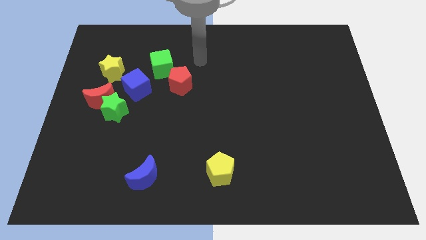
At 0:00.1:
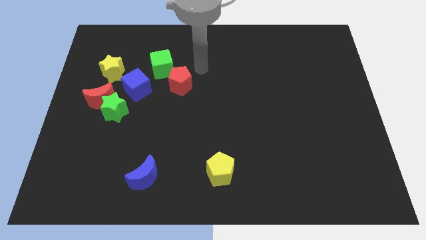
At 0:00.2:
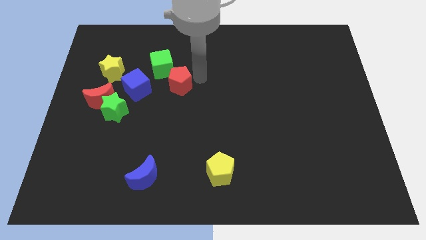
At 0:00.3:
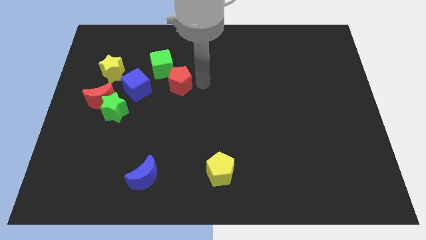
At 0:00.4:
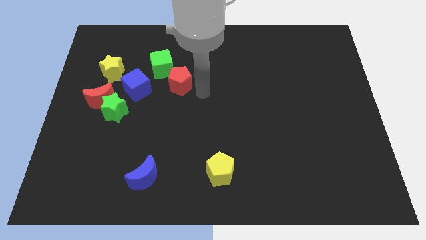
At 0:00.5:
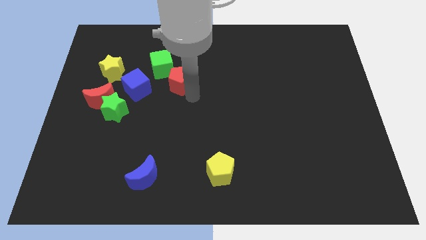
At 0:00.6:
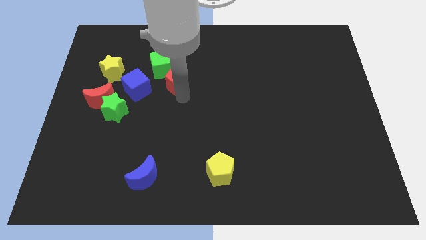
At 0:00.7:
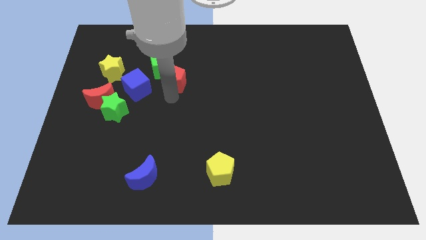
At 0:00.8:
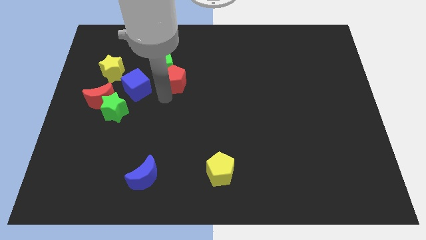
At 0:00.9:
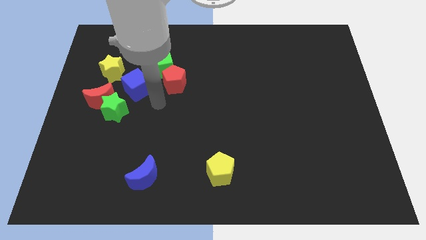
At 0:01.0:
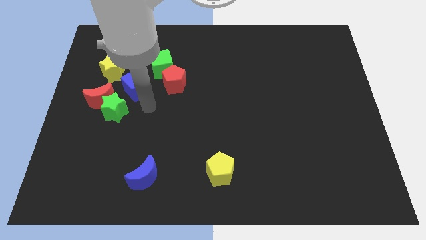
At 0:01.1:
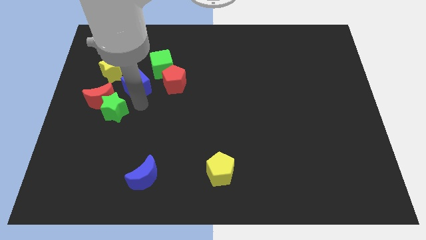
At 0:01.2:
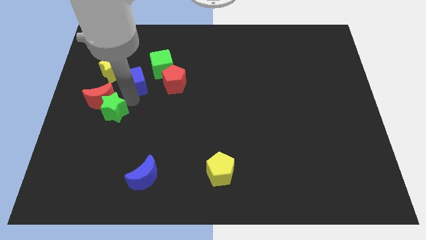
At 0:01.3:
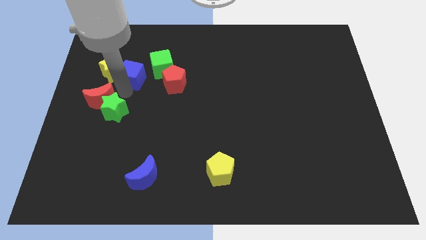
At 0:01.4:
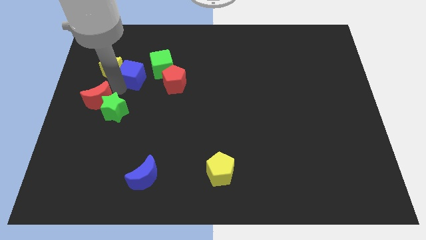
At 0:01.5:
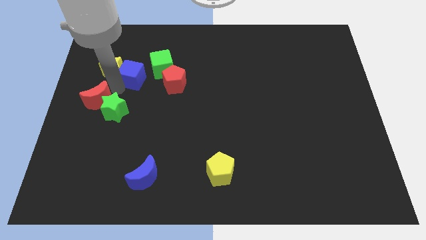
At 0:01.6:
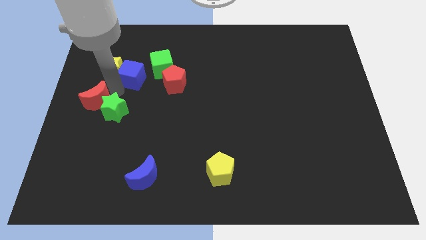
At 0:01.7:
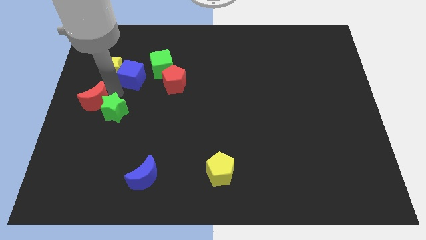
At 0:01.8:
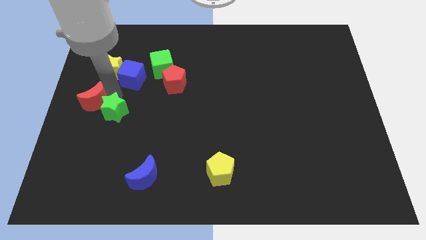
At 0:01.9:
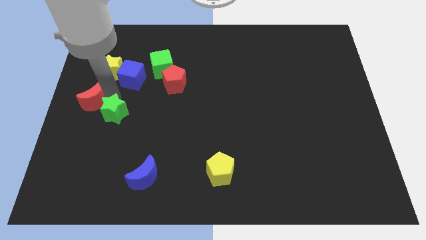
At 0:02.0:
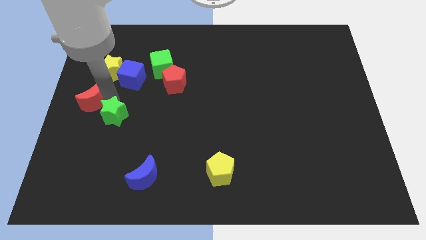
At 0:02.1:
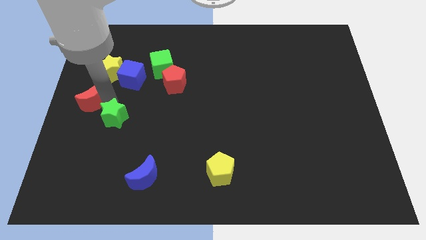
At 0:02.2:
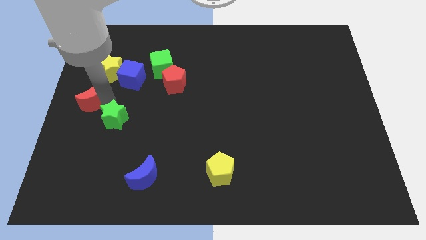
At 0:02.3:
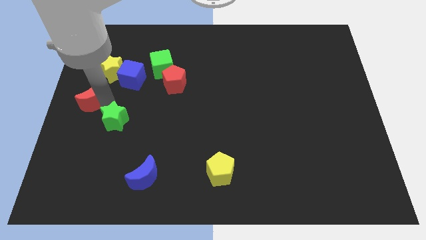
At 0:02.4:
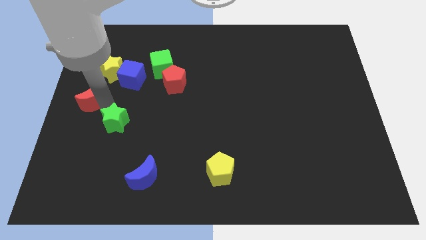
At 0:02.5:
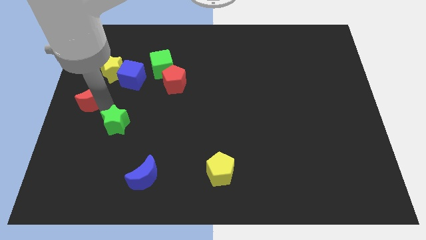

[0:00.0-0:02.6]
separate the green star from the red moon and blue cube

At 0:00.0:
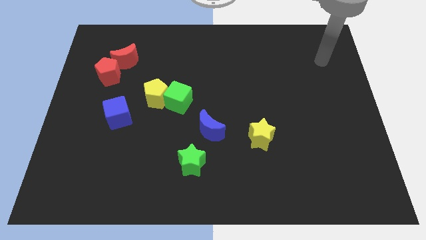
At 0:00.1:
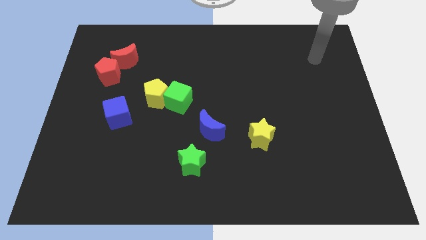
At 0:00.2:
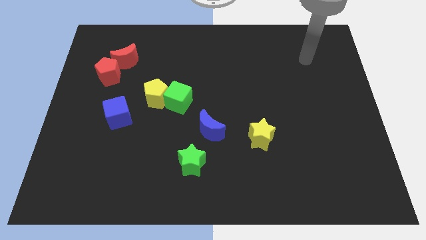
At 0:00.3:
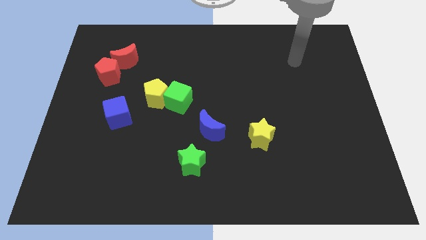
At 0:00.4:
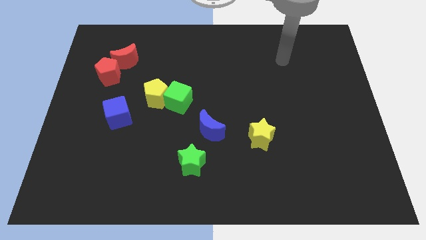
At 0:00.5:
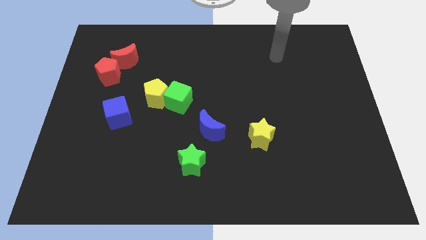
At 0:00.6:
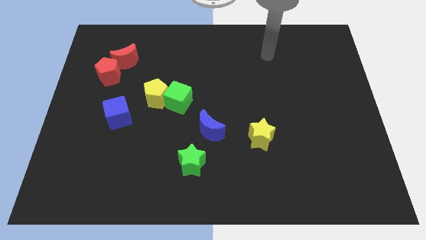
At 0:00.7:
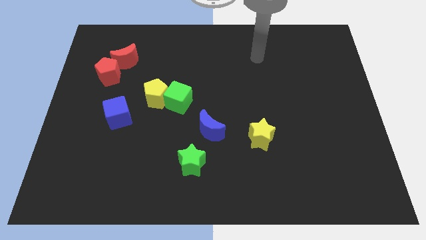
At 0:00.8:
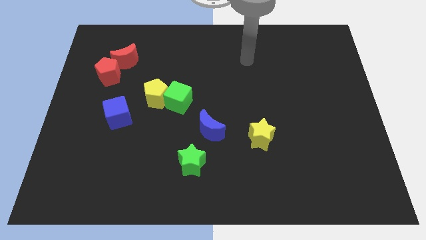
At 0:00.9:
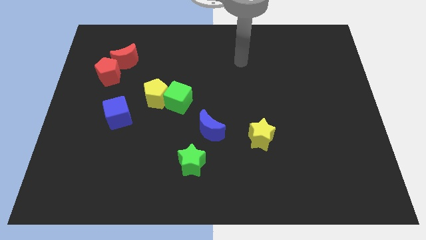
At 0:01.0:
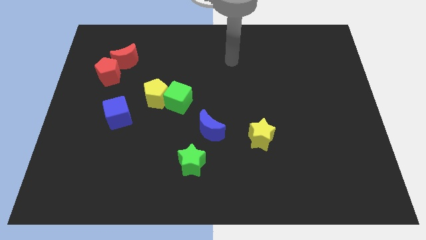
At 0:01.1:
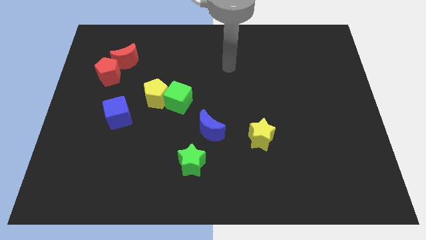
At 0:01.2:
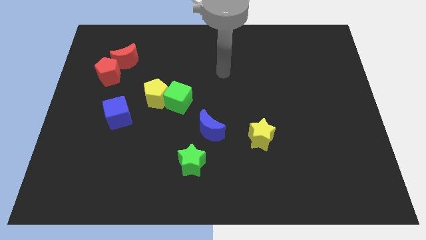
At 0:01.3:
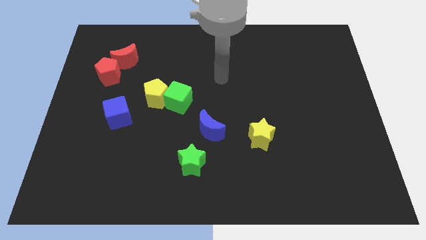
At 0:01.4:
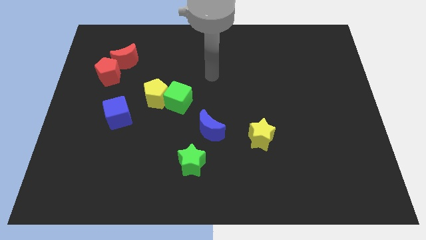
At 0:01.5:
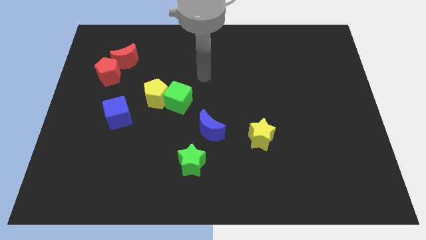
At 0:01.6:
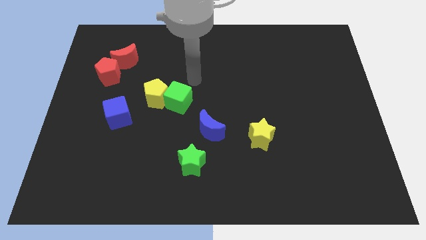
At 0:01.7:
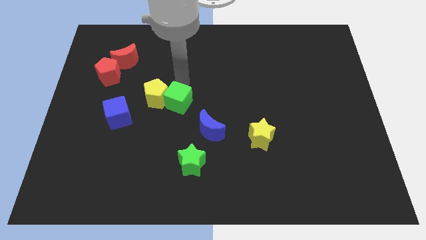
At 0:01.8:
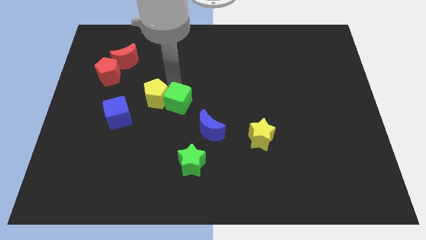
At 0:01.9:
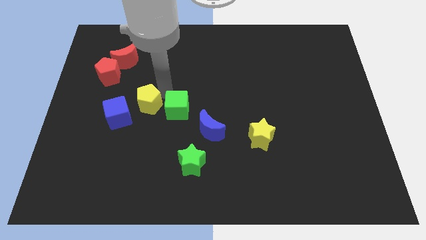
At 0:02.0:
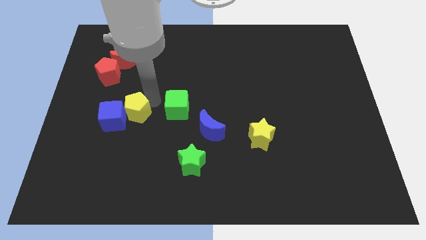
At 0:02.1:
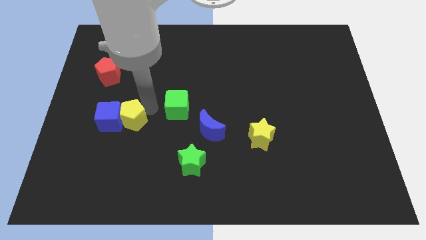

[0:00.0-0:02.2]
move the green cube away from the yellow pentagon

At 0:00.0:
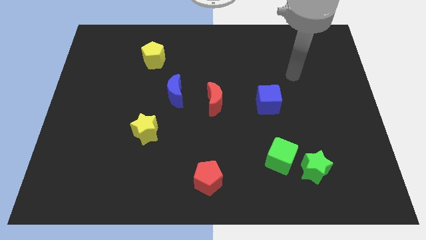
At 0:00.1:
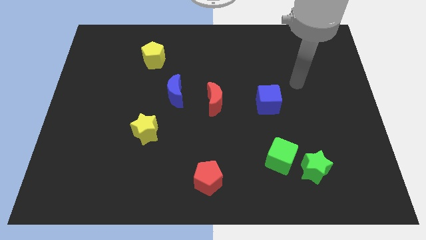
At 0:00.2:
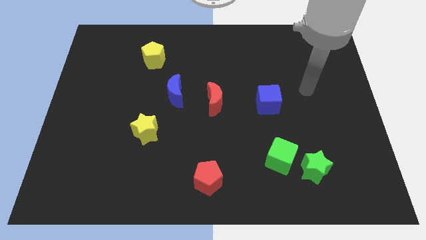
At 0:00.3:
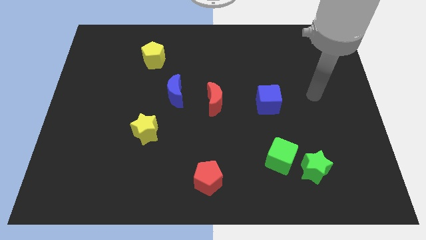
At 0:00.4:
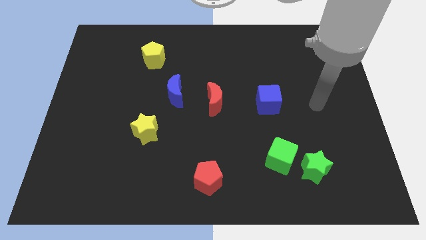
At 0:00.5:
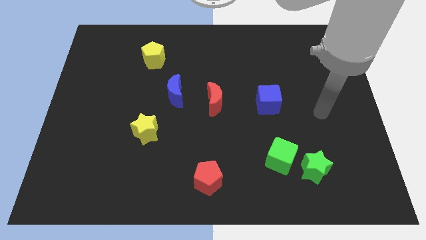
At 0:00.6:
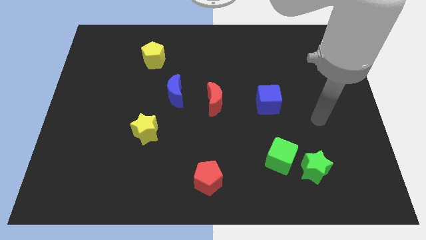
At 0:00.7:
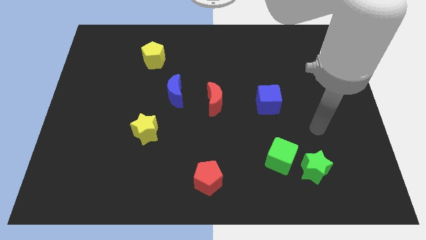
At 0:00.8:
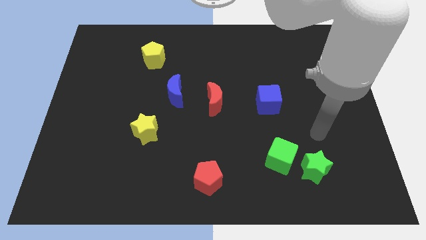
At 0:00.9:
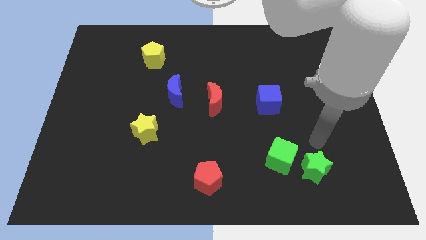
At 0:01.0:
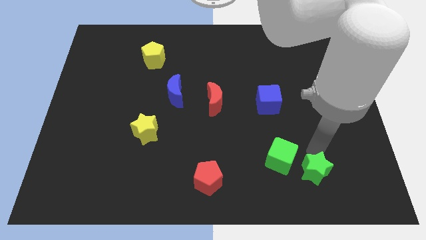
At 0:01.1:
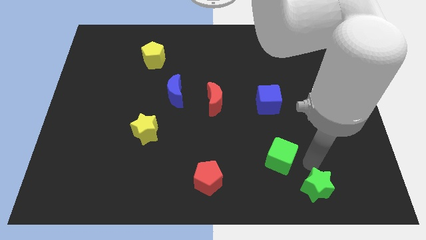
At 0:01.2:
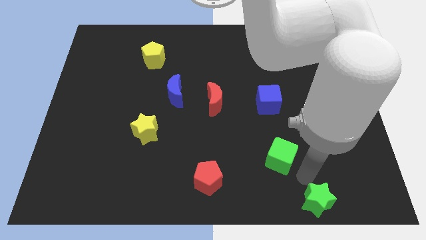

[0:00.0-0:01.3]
move the green cube away from the green star

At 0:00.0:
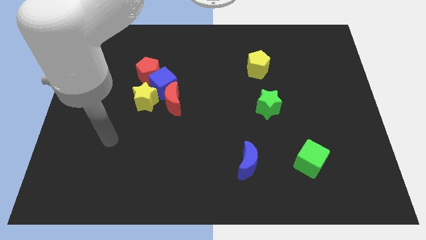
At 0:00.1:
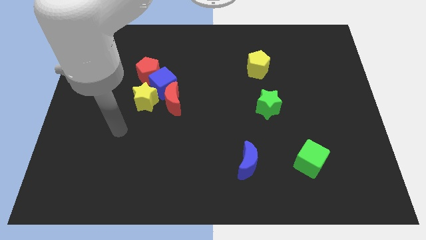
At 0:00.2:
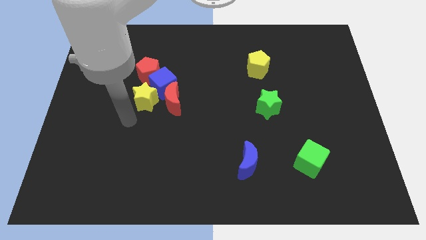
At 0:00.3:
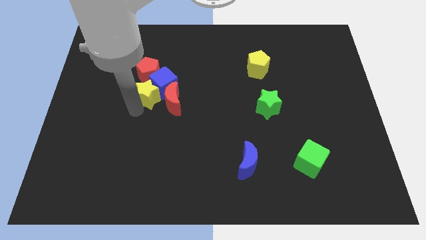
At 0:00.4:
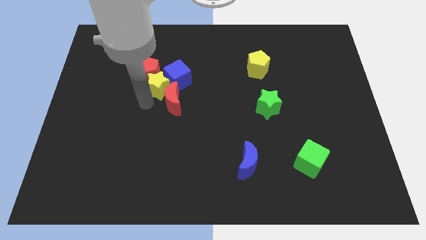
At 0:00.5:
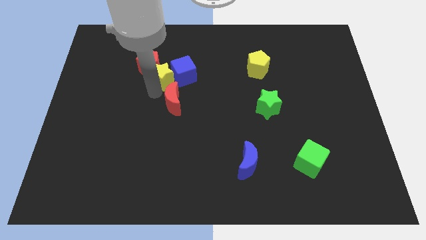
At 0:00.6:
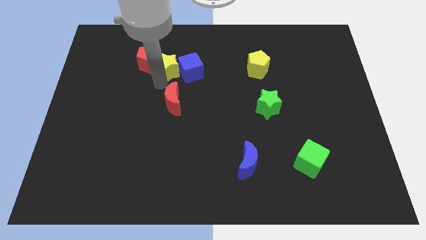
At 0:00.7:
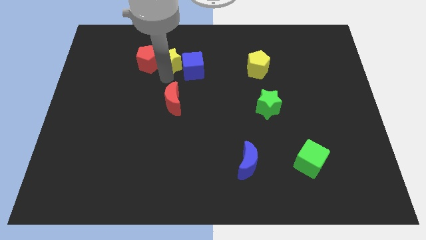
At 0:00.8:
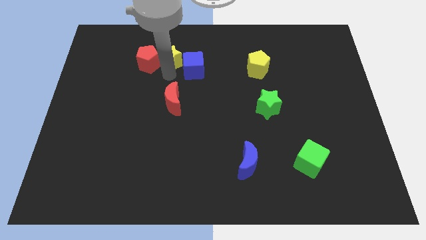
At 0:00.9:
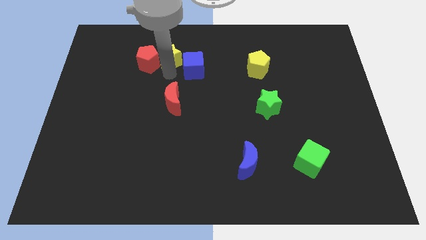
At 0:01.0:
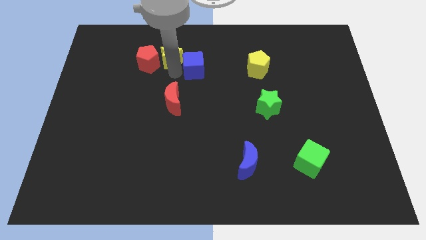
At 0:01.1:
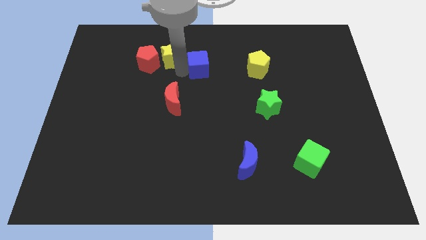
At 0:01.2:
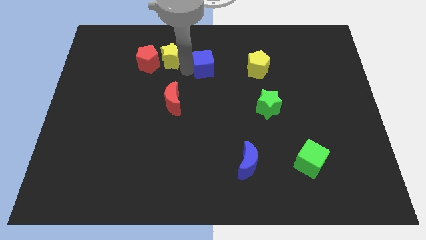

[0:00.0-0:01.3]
move the blue cube away from the group of blocks

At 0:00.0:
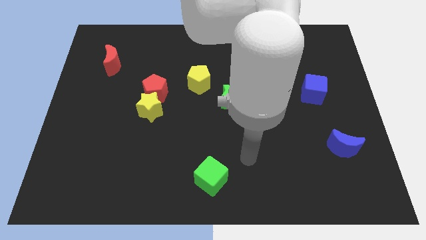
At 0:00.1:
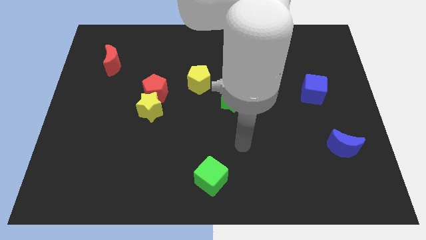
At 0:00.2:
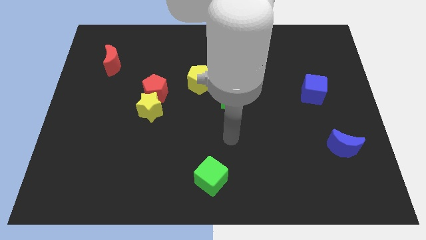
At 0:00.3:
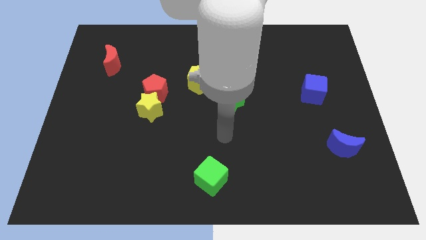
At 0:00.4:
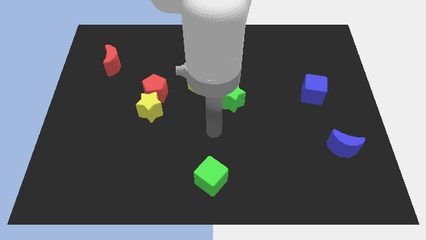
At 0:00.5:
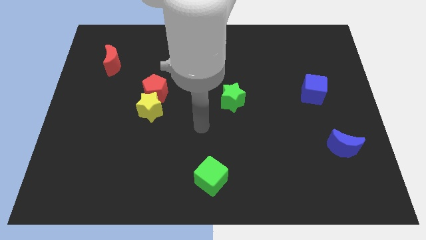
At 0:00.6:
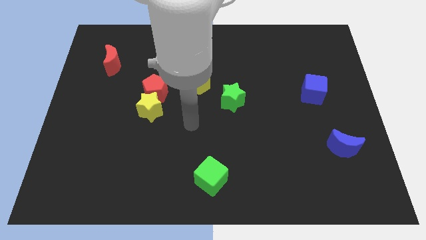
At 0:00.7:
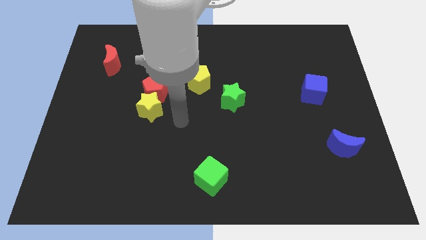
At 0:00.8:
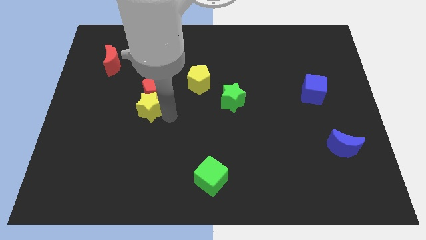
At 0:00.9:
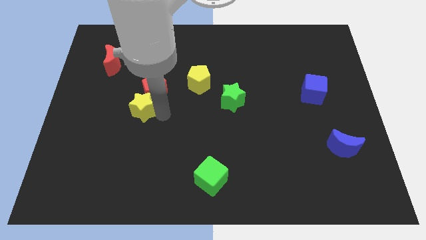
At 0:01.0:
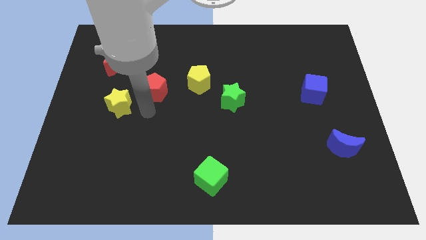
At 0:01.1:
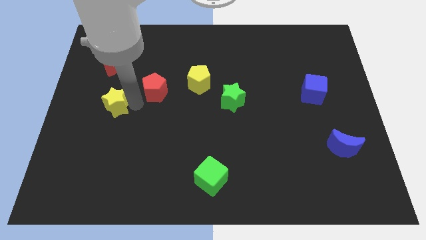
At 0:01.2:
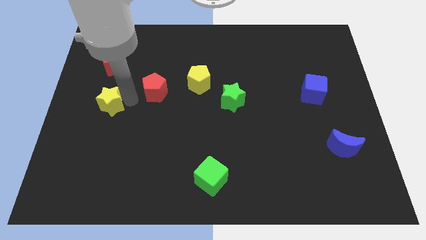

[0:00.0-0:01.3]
separate the red pentagon from the yellow star

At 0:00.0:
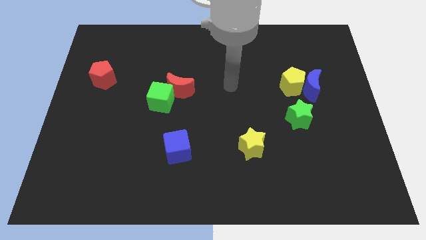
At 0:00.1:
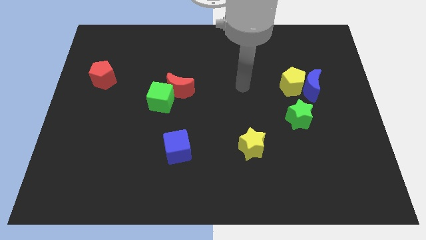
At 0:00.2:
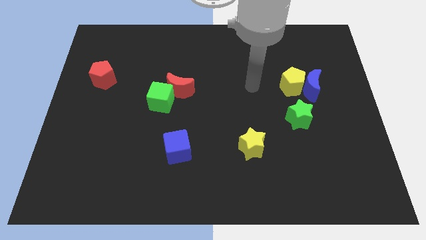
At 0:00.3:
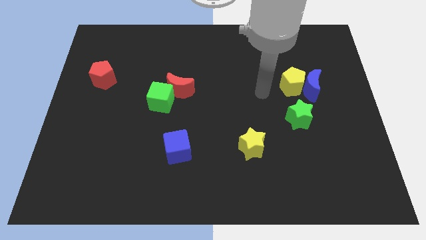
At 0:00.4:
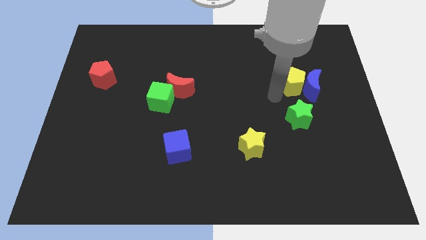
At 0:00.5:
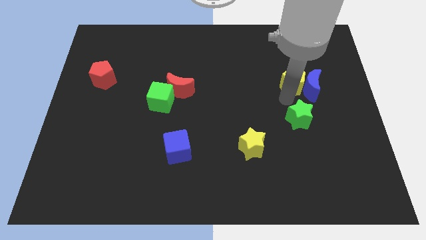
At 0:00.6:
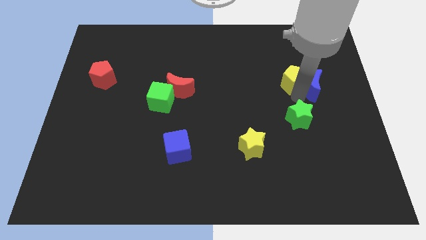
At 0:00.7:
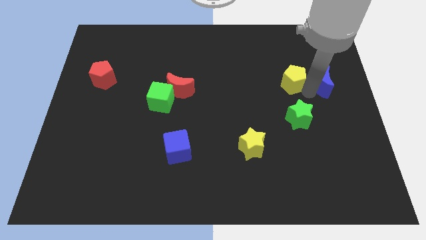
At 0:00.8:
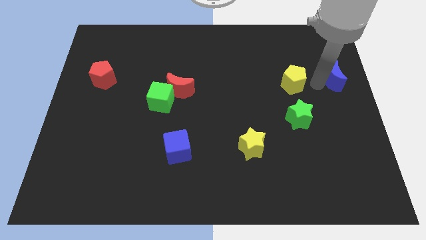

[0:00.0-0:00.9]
pull the yellow pentagon apart from the blue moon
